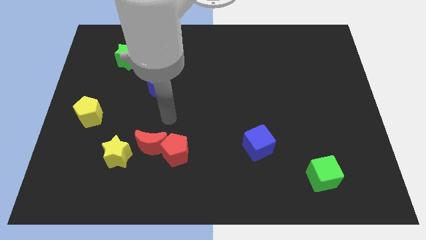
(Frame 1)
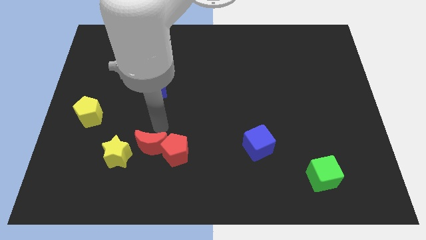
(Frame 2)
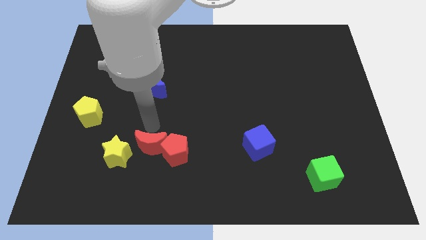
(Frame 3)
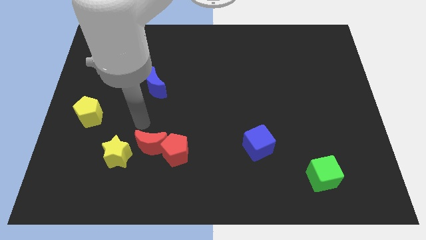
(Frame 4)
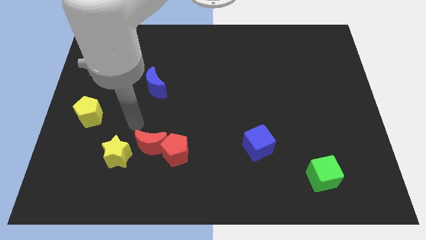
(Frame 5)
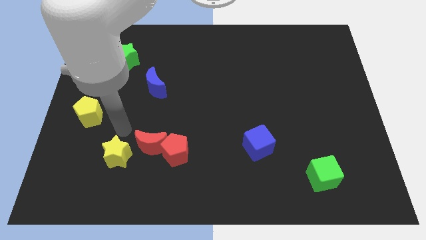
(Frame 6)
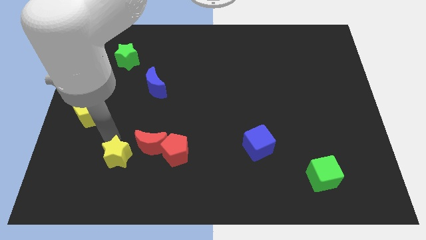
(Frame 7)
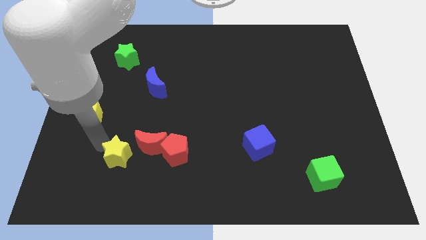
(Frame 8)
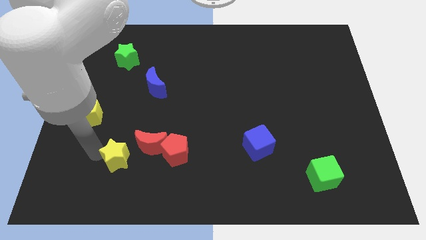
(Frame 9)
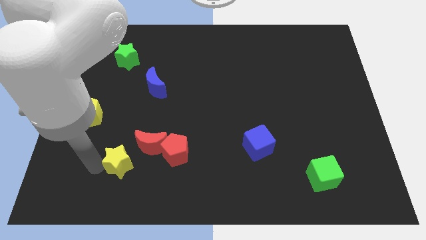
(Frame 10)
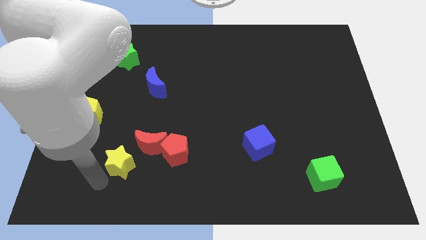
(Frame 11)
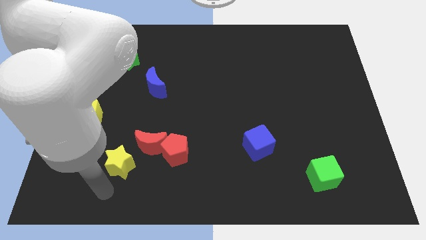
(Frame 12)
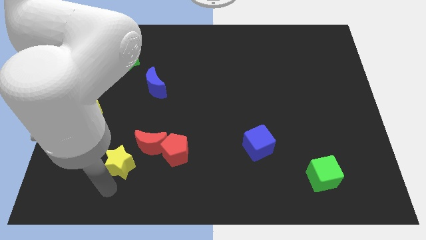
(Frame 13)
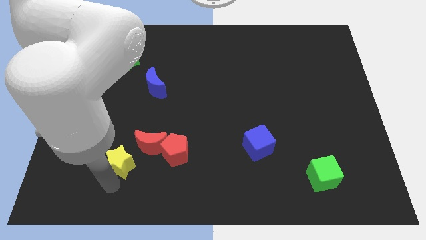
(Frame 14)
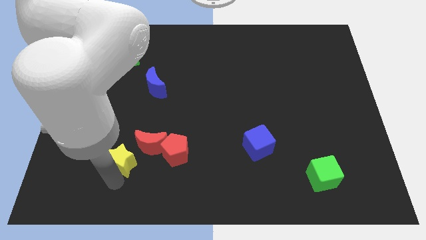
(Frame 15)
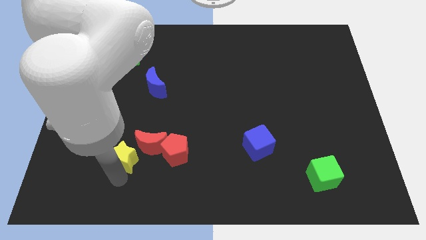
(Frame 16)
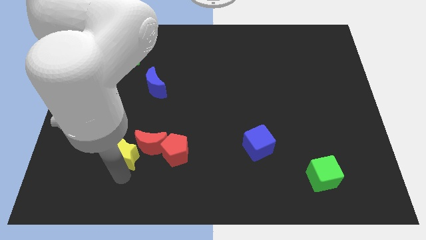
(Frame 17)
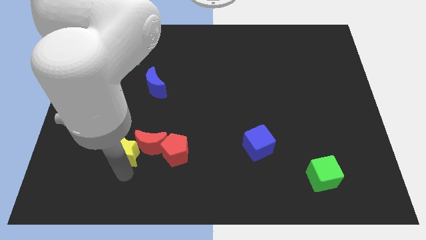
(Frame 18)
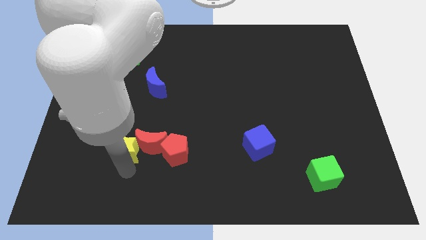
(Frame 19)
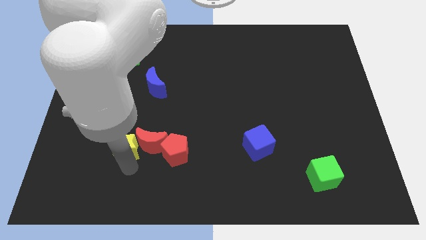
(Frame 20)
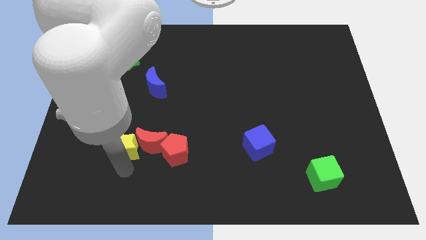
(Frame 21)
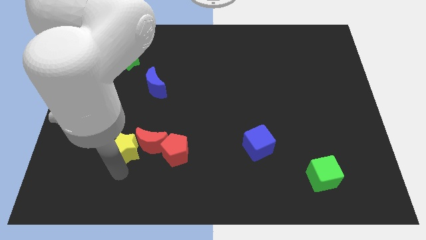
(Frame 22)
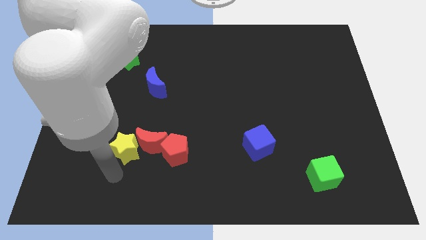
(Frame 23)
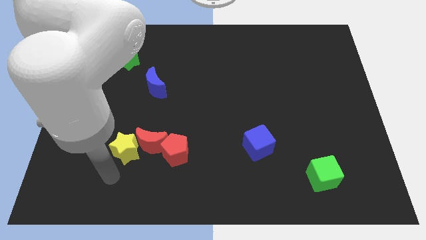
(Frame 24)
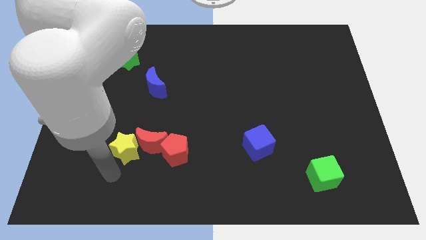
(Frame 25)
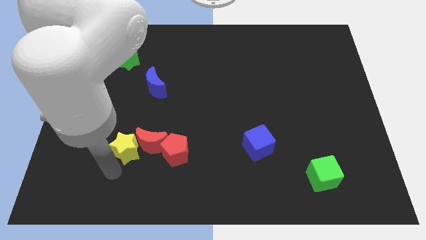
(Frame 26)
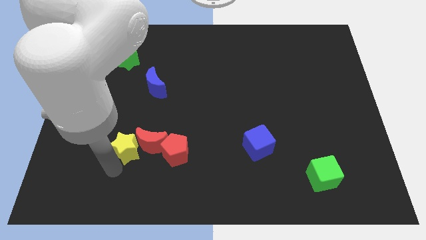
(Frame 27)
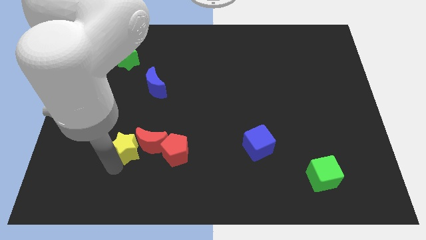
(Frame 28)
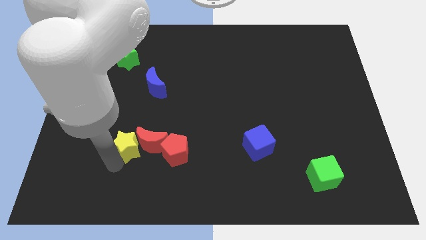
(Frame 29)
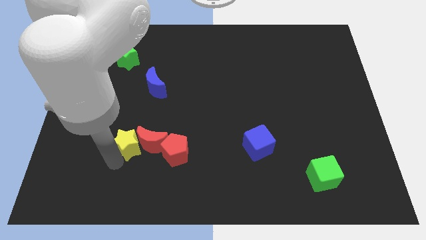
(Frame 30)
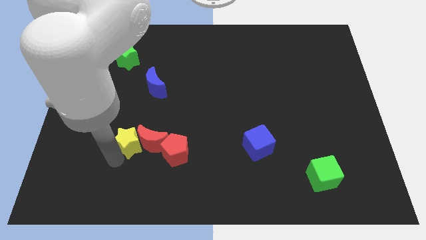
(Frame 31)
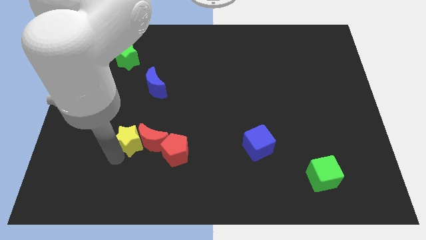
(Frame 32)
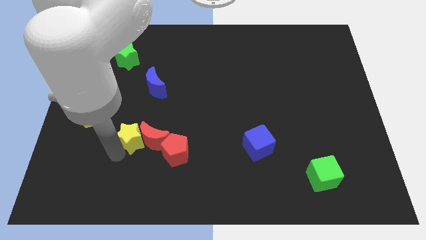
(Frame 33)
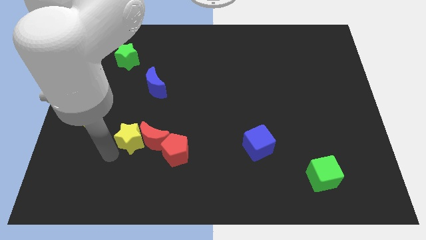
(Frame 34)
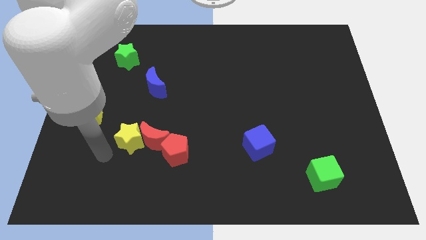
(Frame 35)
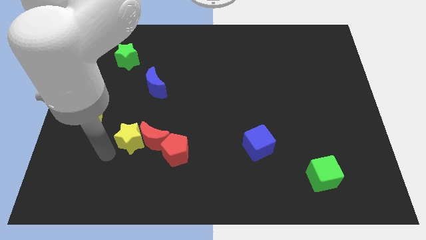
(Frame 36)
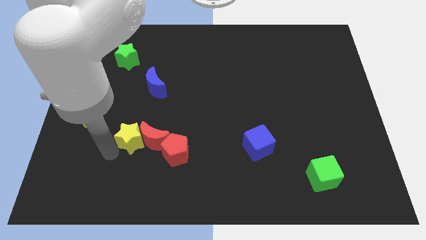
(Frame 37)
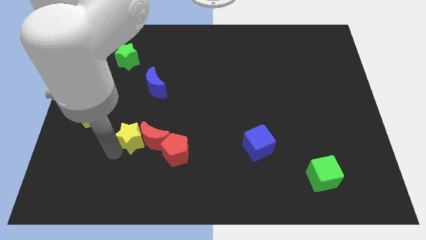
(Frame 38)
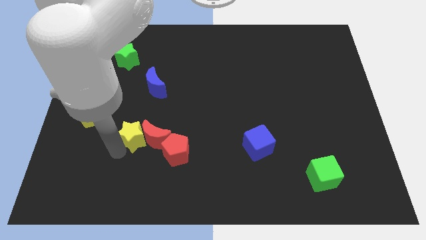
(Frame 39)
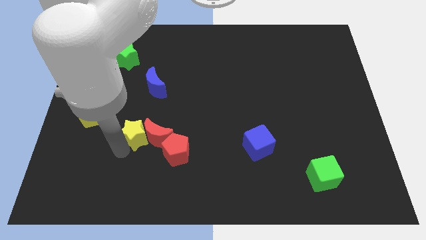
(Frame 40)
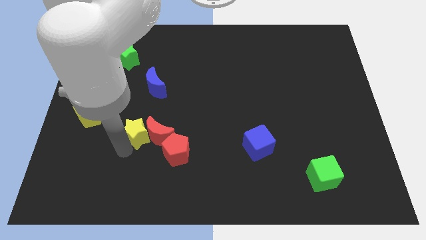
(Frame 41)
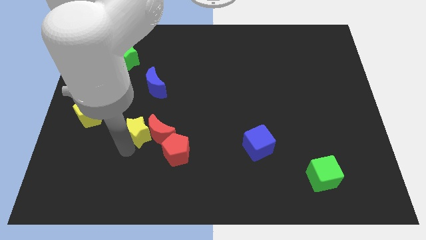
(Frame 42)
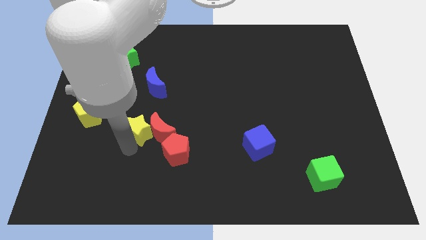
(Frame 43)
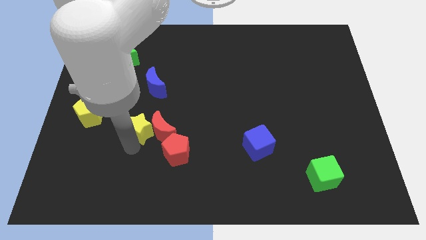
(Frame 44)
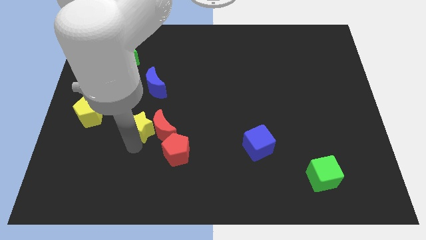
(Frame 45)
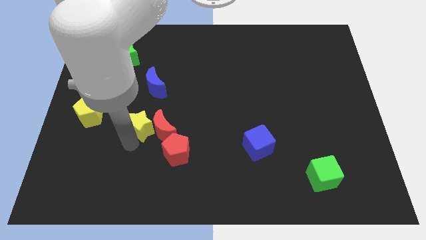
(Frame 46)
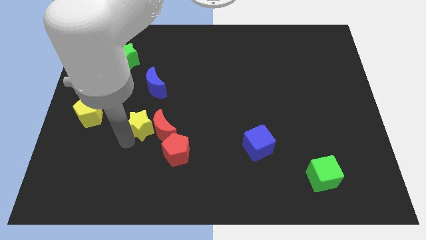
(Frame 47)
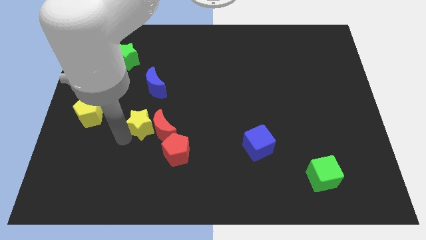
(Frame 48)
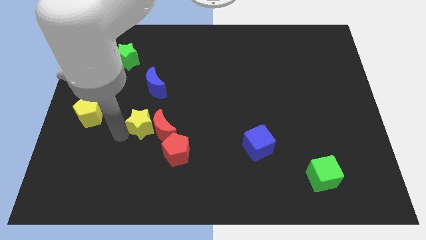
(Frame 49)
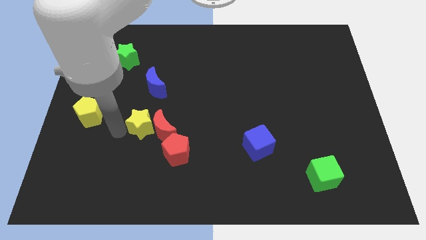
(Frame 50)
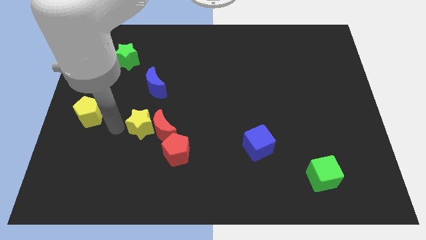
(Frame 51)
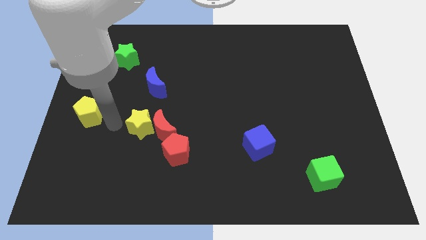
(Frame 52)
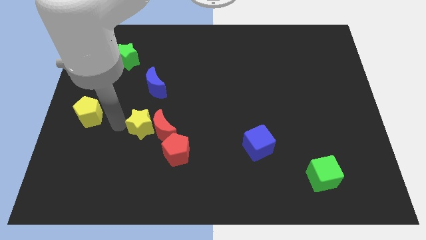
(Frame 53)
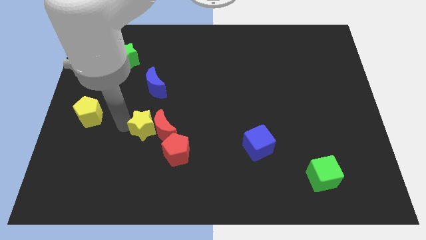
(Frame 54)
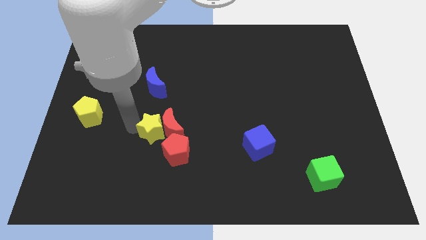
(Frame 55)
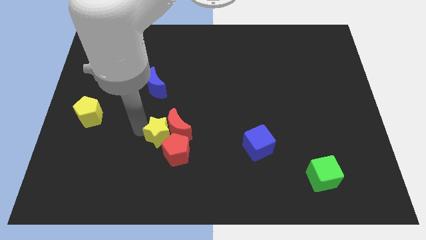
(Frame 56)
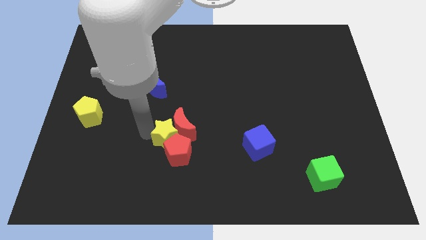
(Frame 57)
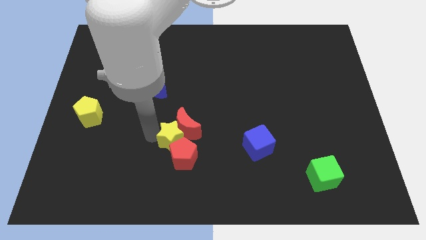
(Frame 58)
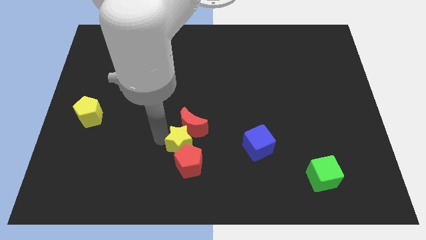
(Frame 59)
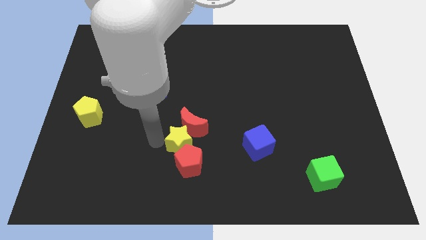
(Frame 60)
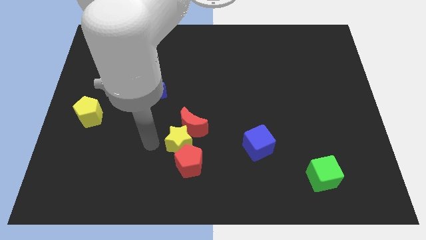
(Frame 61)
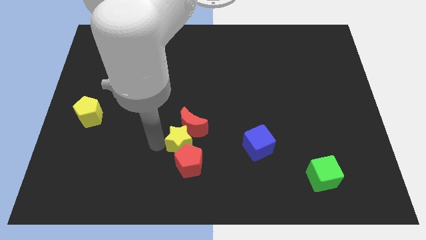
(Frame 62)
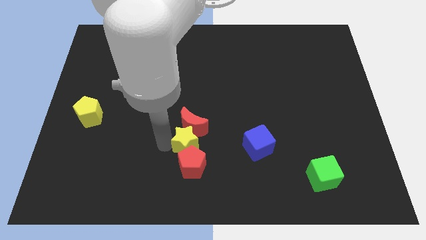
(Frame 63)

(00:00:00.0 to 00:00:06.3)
put the yellow star to the left of the blue cube
